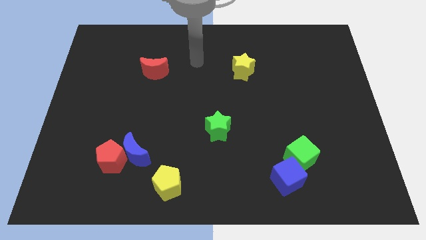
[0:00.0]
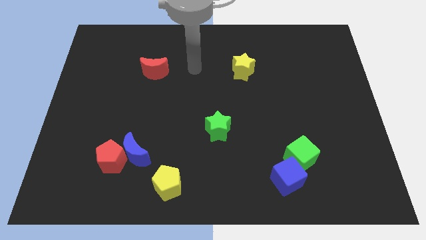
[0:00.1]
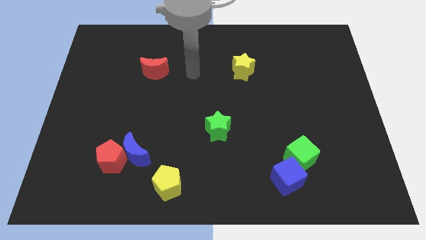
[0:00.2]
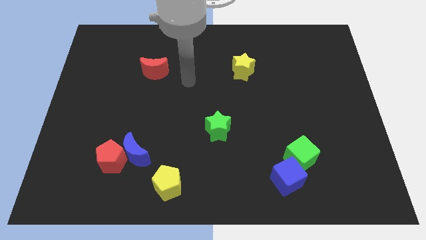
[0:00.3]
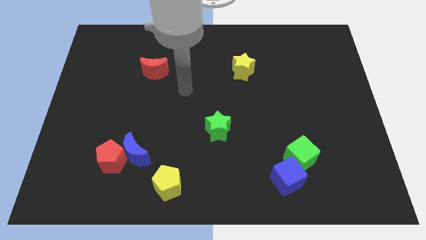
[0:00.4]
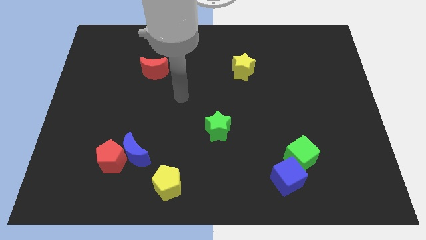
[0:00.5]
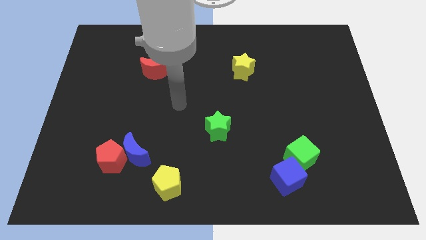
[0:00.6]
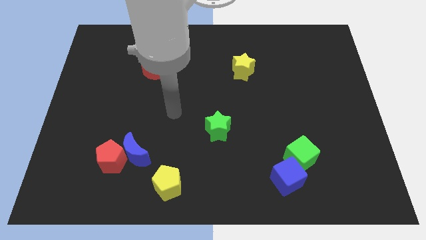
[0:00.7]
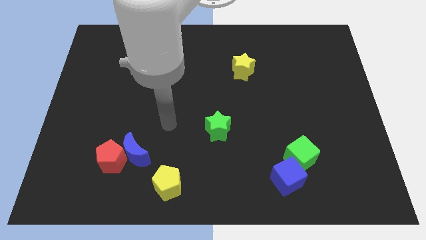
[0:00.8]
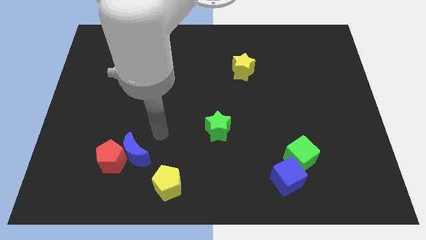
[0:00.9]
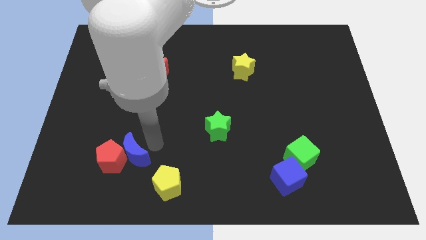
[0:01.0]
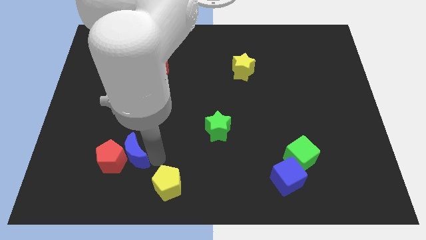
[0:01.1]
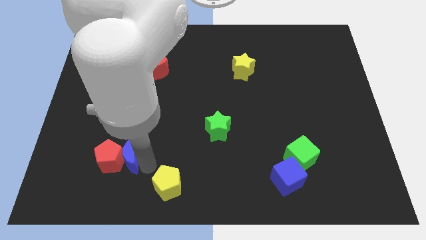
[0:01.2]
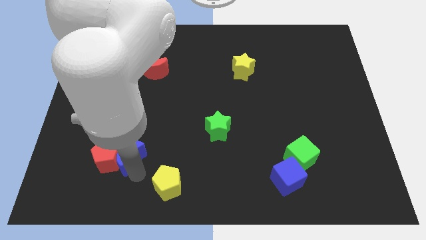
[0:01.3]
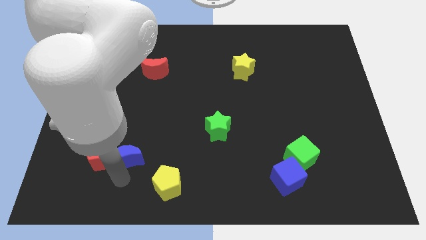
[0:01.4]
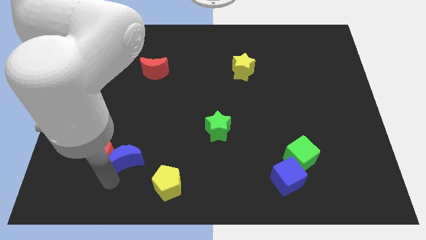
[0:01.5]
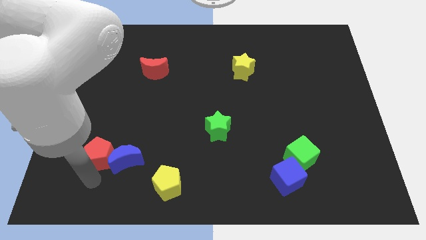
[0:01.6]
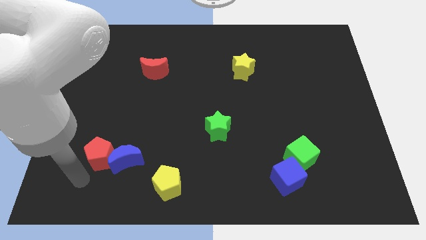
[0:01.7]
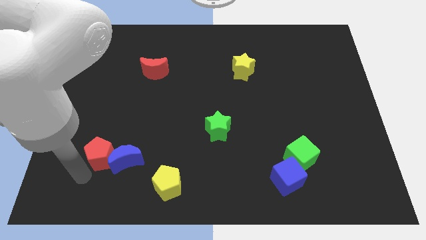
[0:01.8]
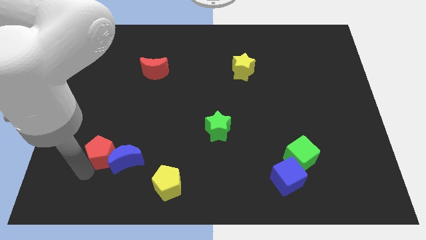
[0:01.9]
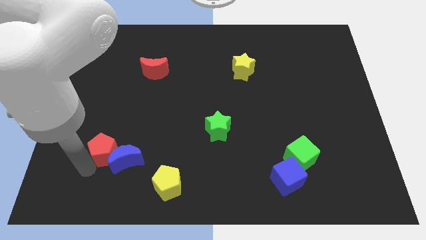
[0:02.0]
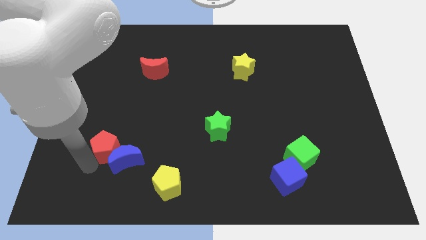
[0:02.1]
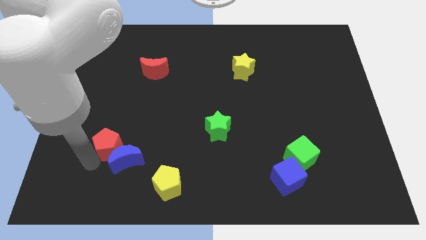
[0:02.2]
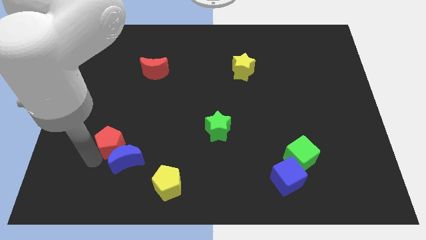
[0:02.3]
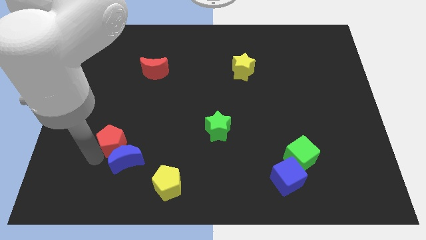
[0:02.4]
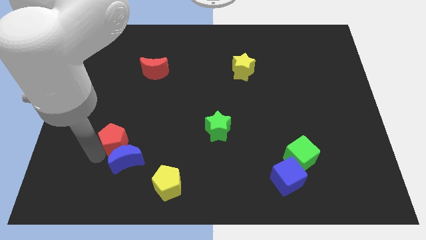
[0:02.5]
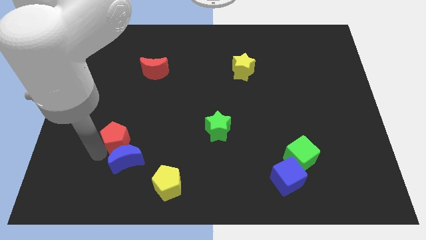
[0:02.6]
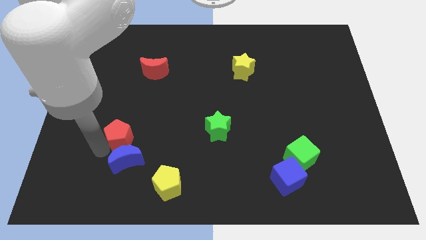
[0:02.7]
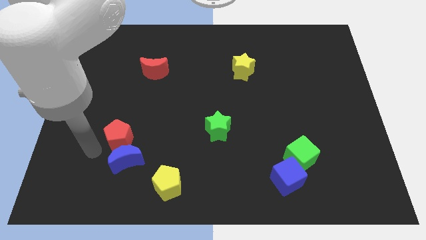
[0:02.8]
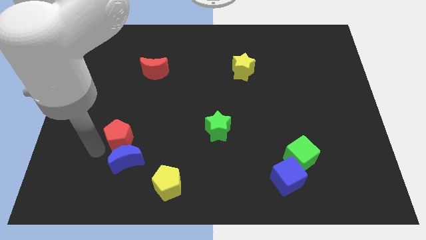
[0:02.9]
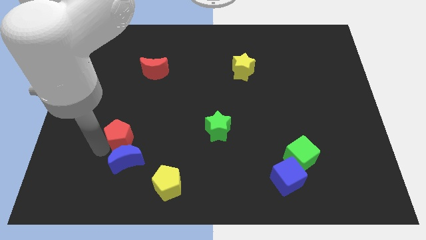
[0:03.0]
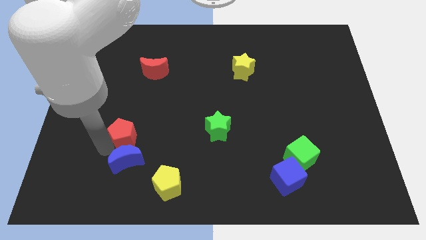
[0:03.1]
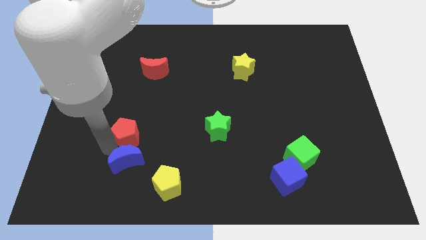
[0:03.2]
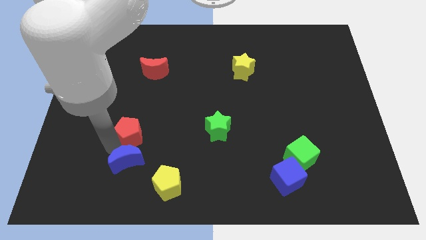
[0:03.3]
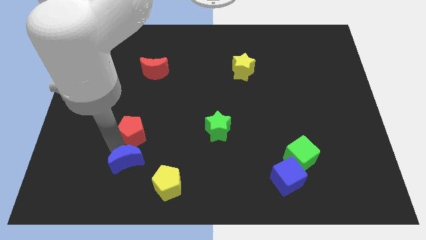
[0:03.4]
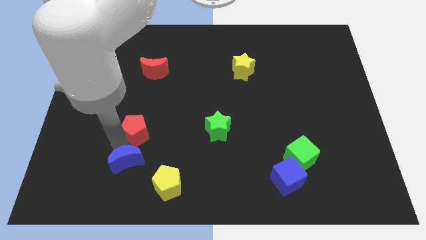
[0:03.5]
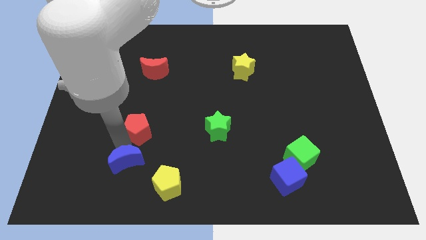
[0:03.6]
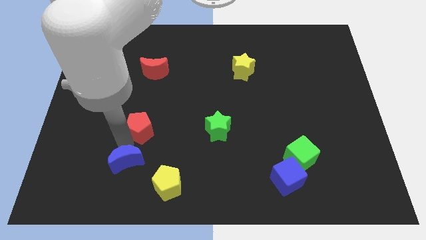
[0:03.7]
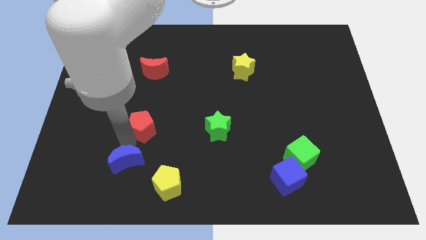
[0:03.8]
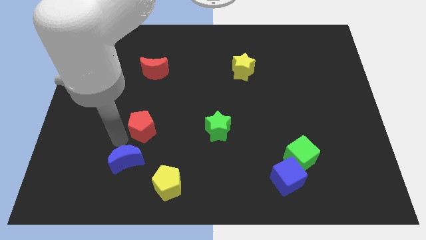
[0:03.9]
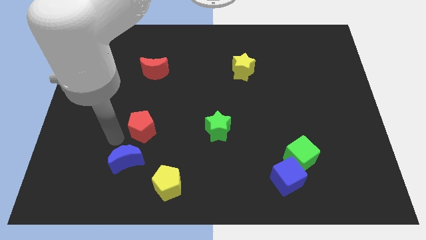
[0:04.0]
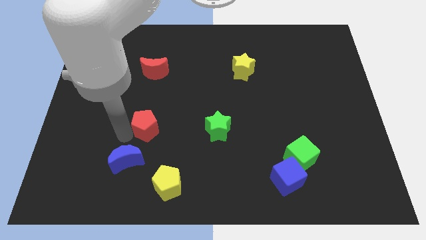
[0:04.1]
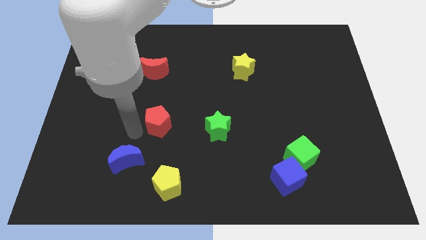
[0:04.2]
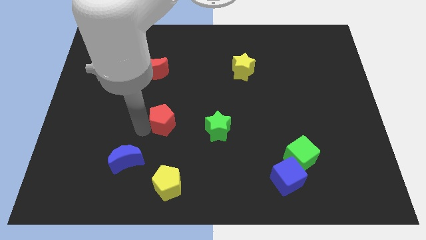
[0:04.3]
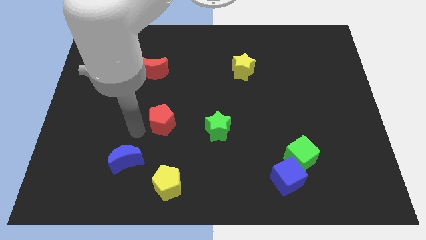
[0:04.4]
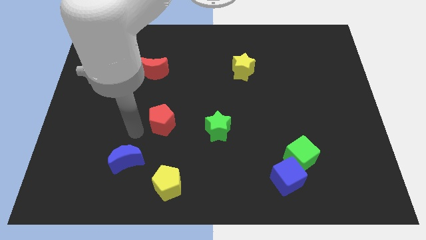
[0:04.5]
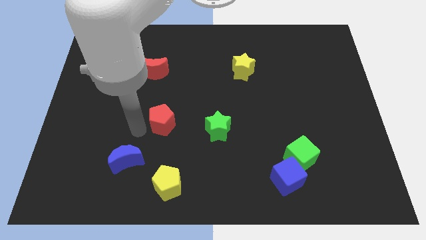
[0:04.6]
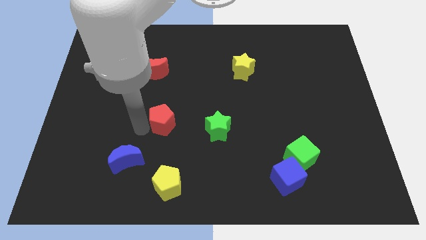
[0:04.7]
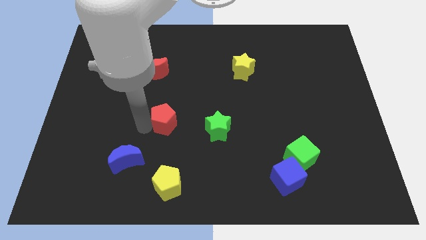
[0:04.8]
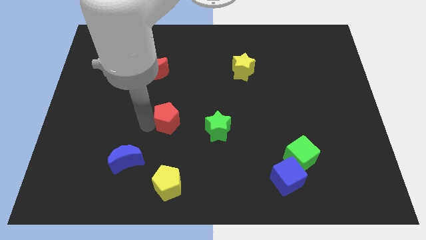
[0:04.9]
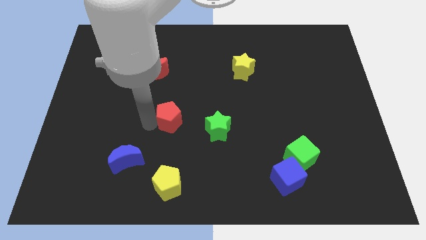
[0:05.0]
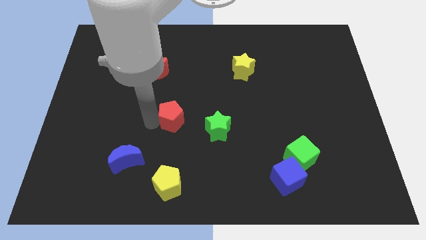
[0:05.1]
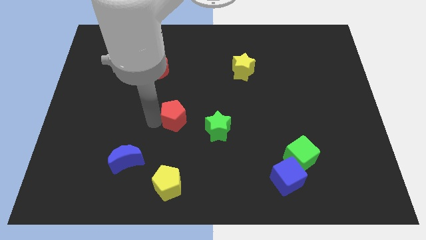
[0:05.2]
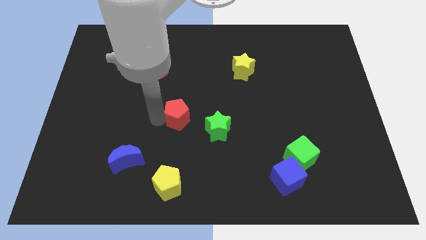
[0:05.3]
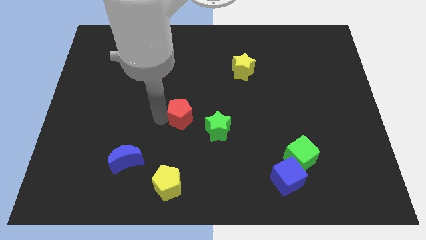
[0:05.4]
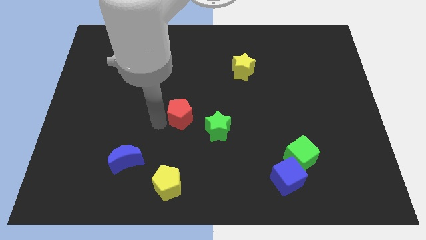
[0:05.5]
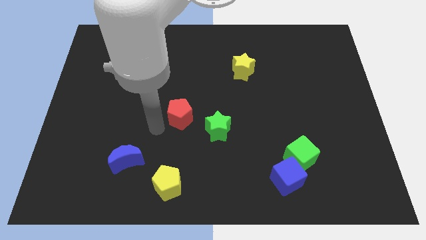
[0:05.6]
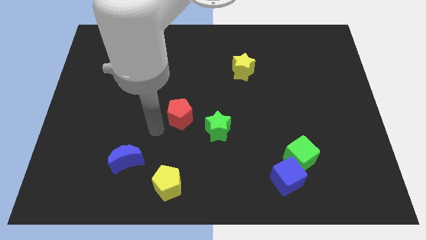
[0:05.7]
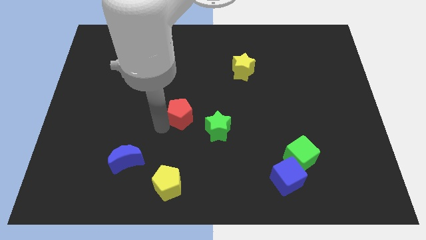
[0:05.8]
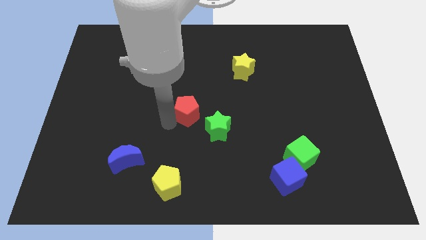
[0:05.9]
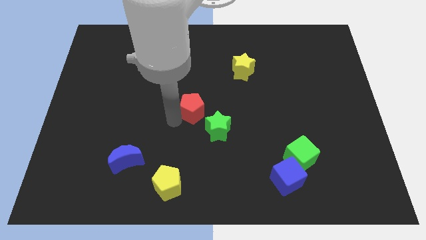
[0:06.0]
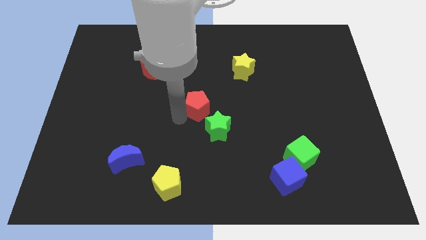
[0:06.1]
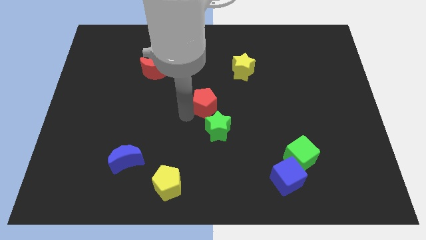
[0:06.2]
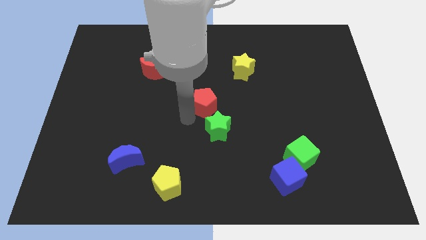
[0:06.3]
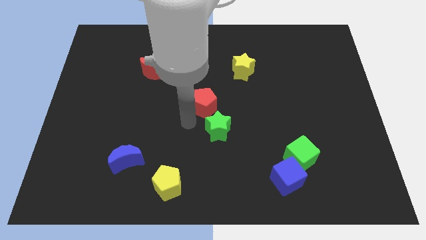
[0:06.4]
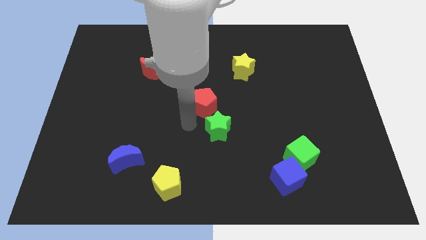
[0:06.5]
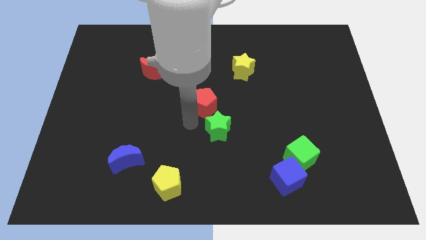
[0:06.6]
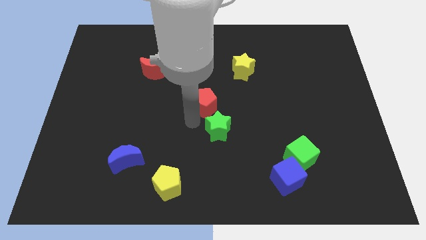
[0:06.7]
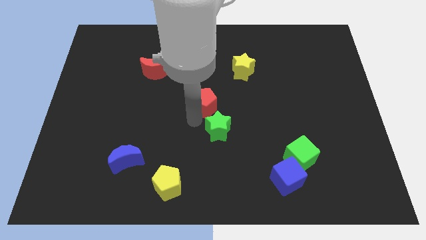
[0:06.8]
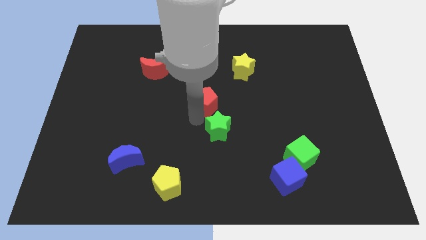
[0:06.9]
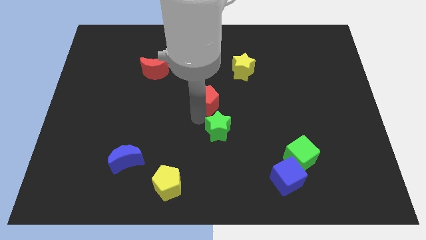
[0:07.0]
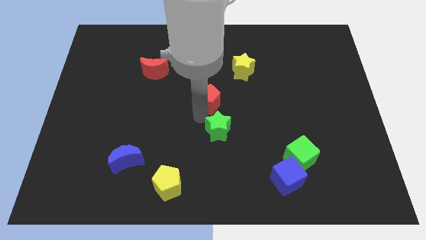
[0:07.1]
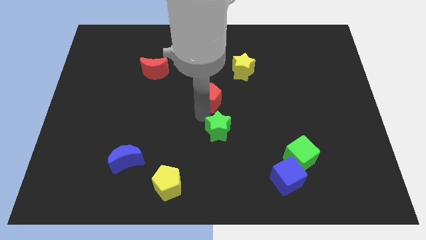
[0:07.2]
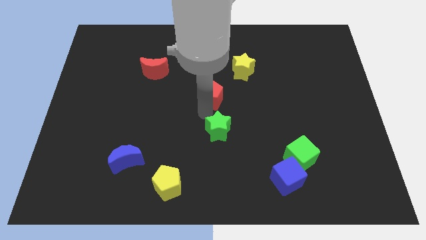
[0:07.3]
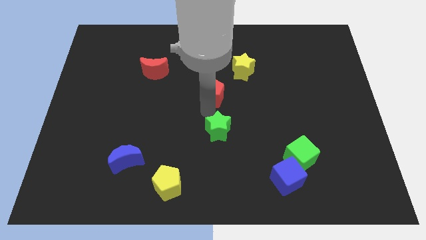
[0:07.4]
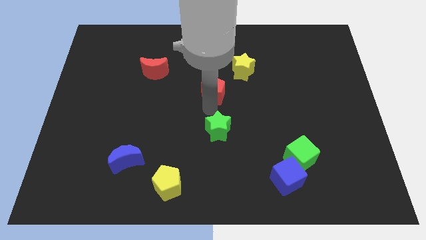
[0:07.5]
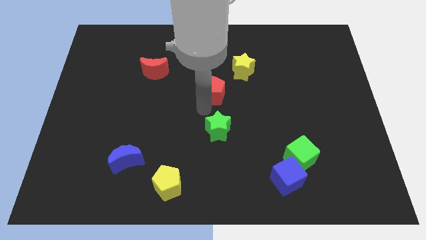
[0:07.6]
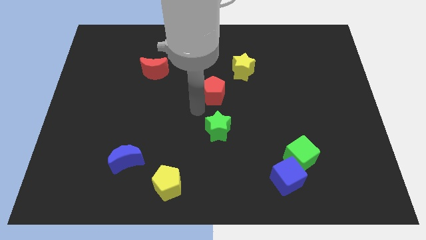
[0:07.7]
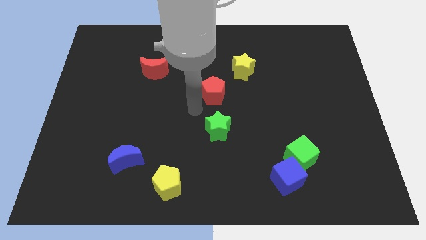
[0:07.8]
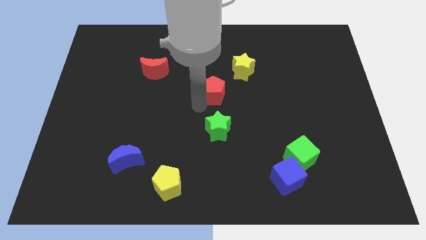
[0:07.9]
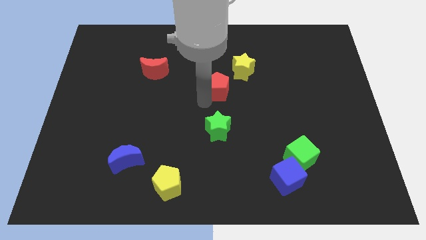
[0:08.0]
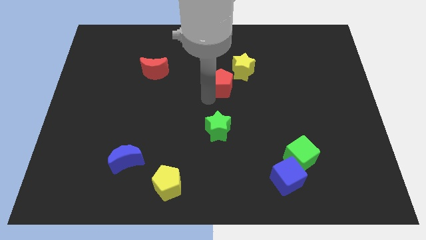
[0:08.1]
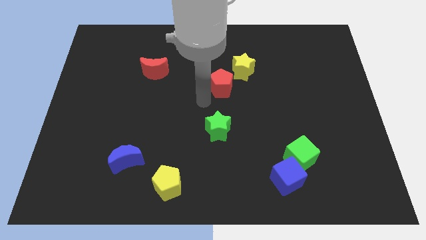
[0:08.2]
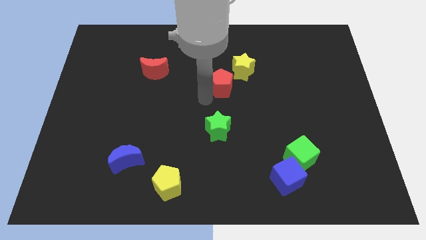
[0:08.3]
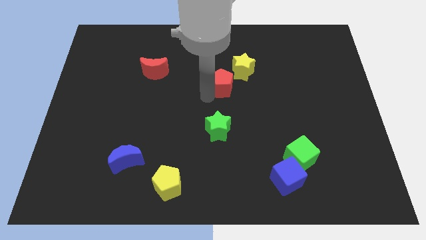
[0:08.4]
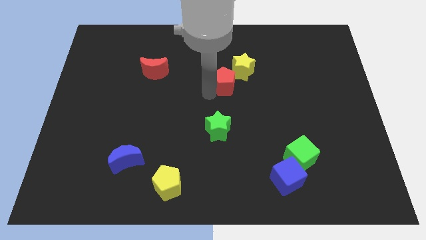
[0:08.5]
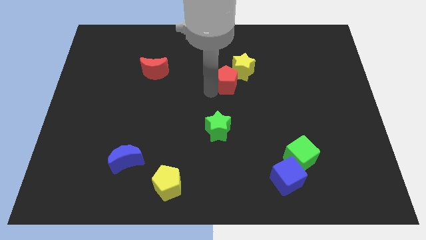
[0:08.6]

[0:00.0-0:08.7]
move the red pentagon towards the yellow star
